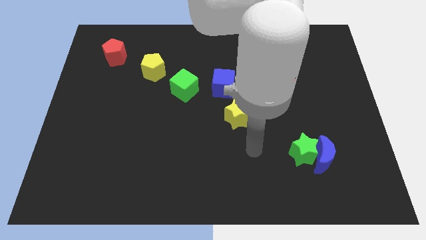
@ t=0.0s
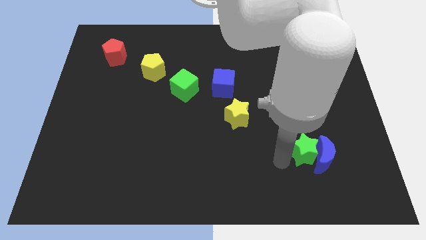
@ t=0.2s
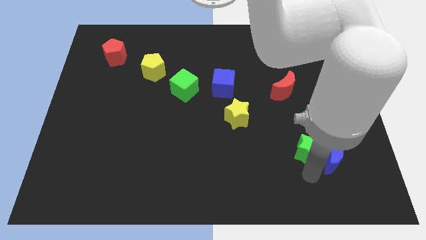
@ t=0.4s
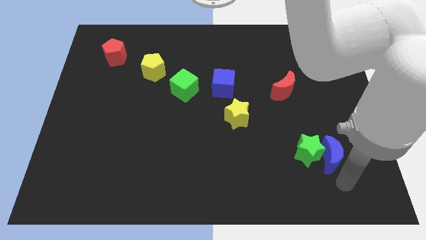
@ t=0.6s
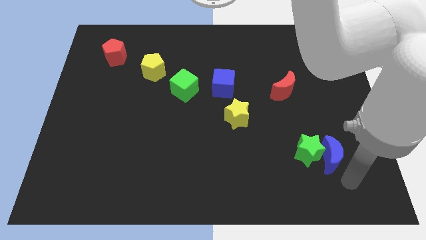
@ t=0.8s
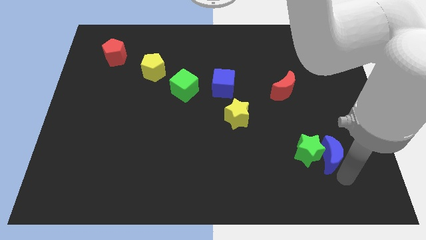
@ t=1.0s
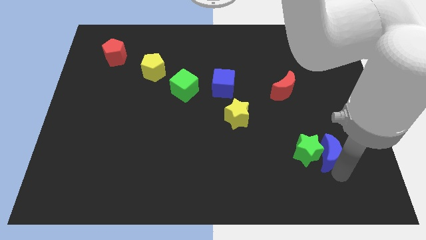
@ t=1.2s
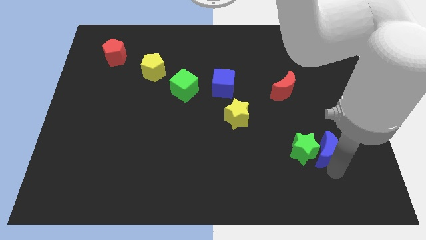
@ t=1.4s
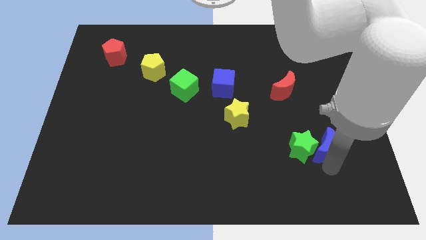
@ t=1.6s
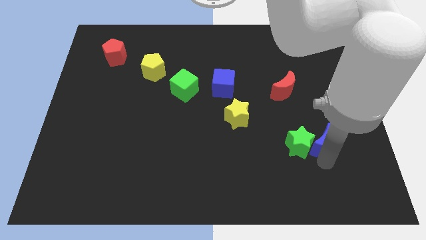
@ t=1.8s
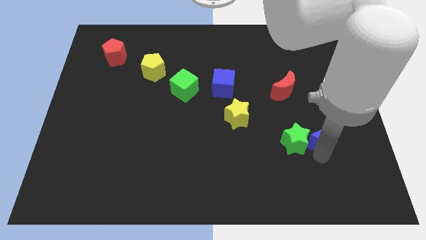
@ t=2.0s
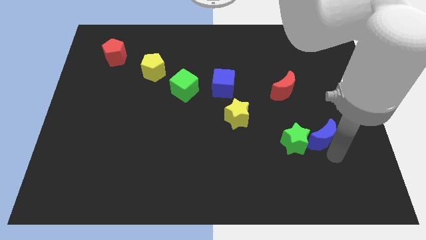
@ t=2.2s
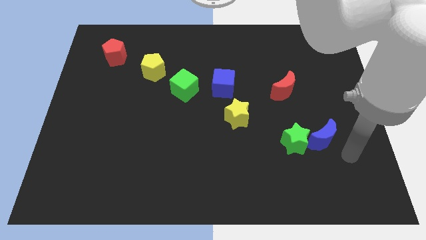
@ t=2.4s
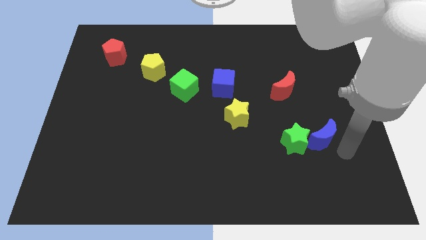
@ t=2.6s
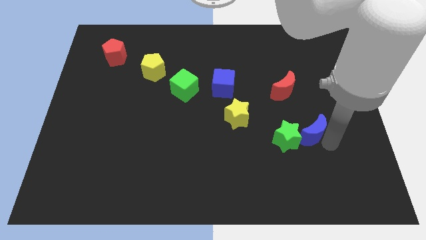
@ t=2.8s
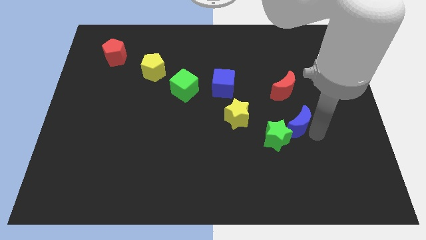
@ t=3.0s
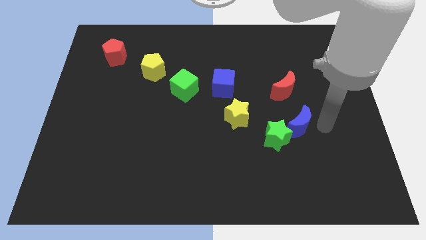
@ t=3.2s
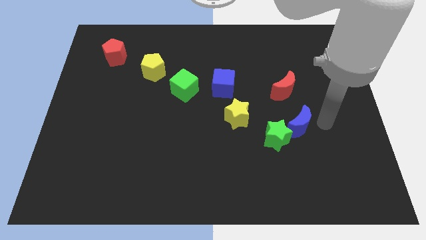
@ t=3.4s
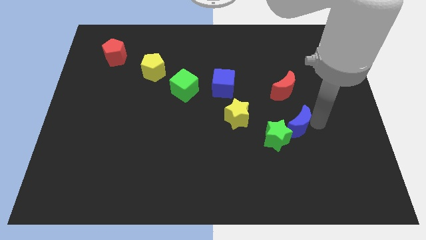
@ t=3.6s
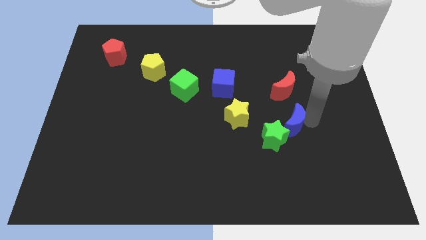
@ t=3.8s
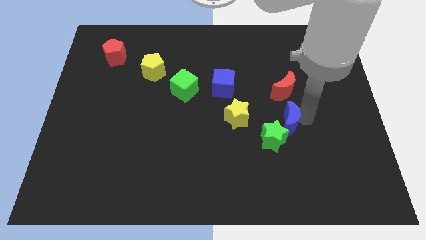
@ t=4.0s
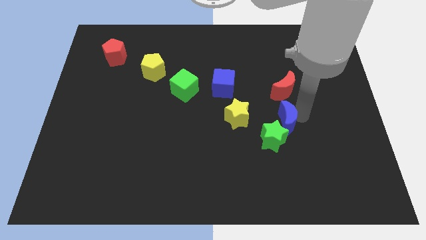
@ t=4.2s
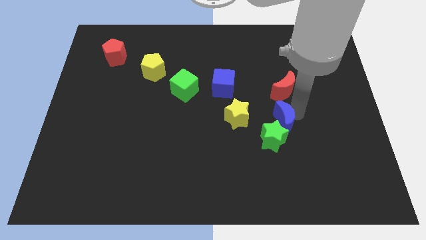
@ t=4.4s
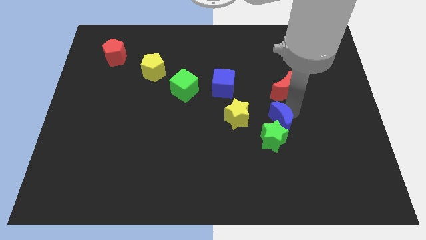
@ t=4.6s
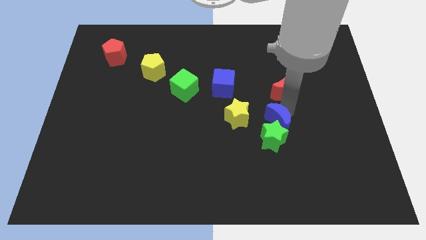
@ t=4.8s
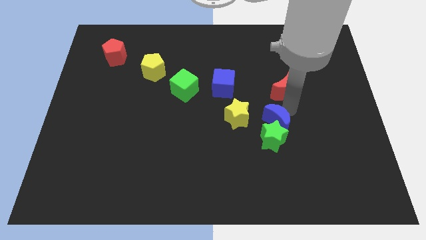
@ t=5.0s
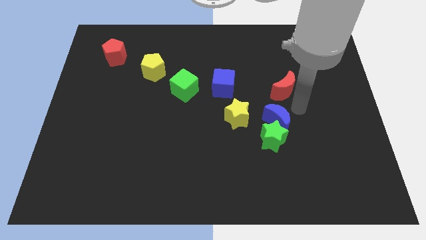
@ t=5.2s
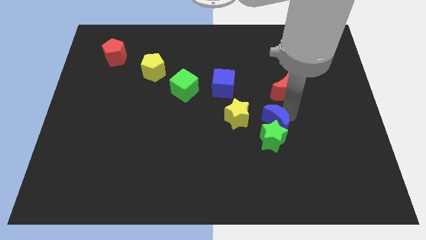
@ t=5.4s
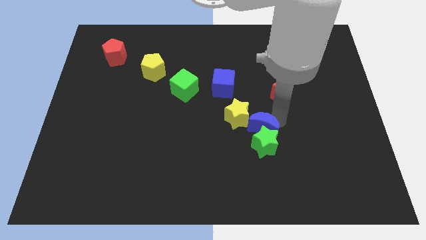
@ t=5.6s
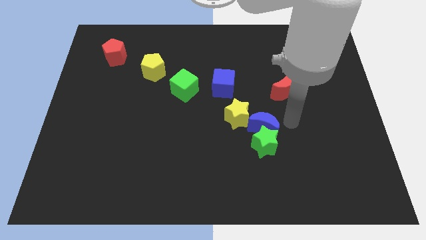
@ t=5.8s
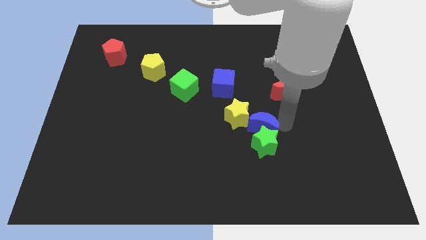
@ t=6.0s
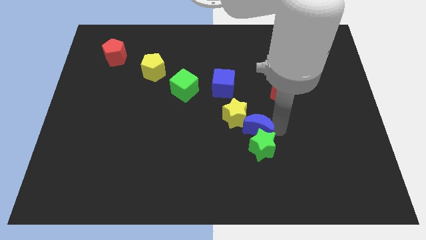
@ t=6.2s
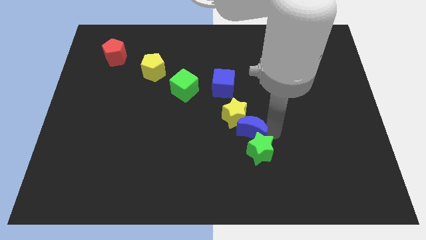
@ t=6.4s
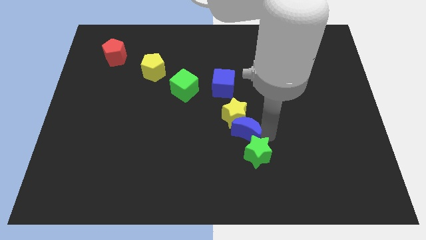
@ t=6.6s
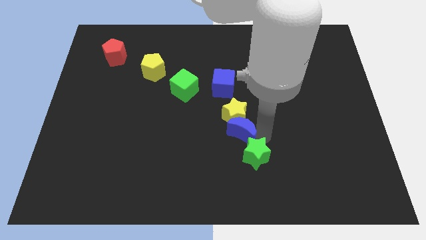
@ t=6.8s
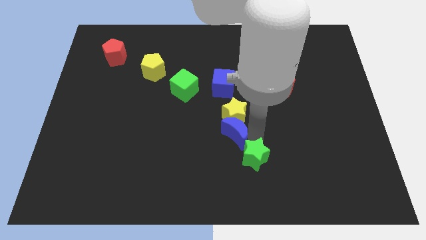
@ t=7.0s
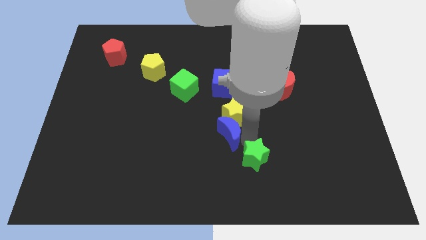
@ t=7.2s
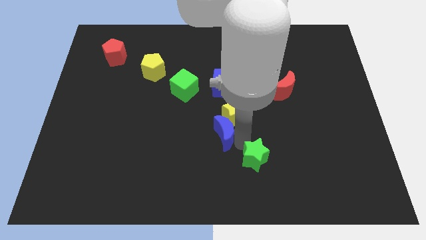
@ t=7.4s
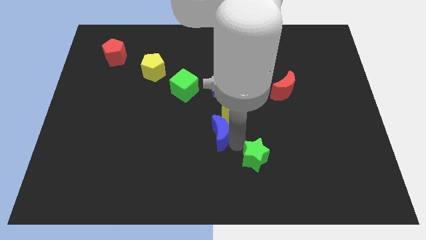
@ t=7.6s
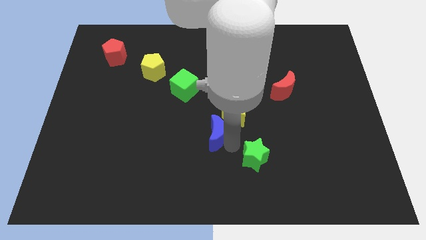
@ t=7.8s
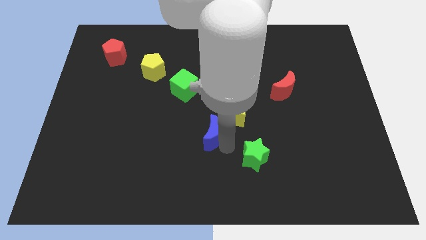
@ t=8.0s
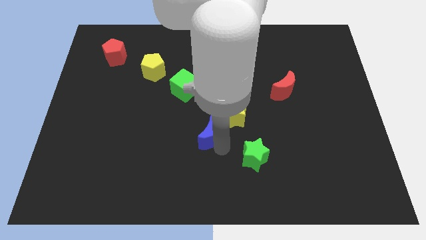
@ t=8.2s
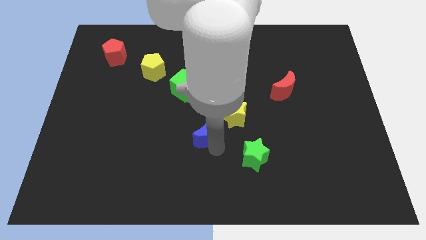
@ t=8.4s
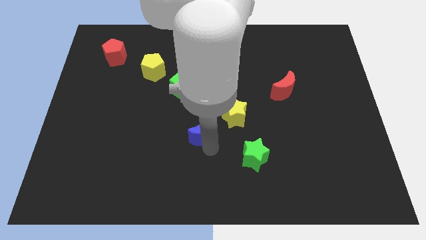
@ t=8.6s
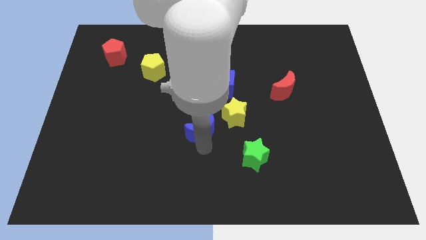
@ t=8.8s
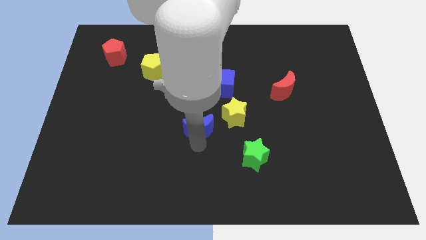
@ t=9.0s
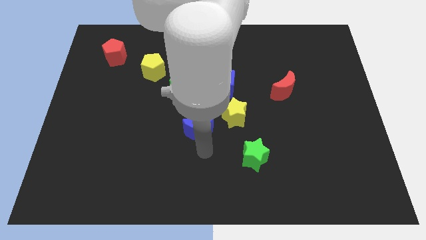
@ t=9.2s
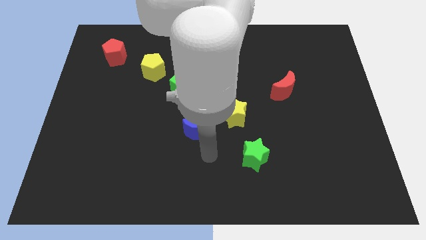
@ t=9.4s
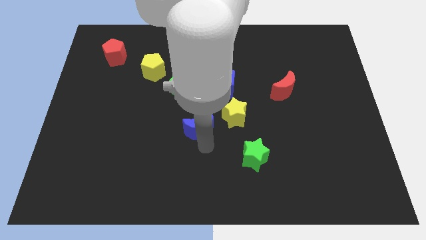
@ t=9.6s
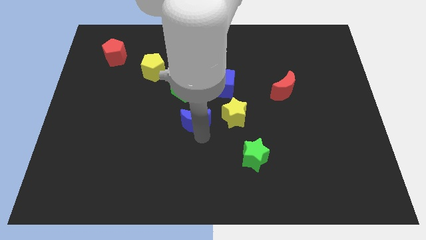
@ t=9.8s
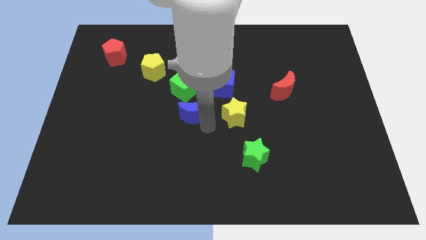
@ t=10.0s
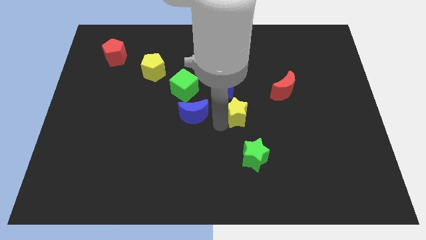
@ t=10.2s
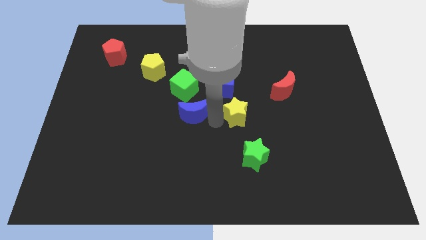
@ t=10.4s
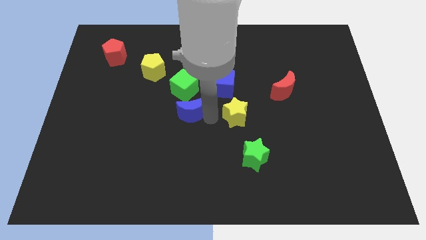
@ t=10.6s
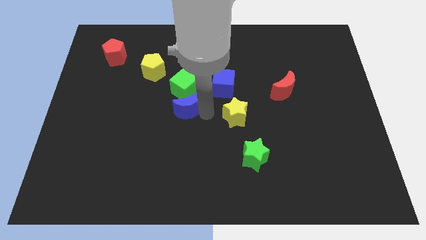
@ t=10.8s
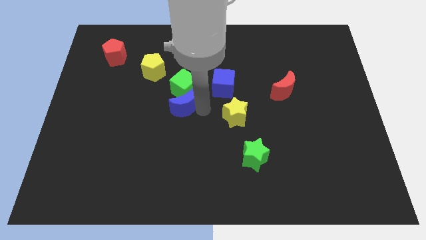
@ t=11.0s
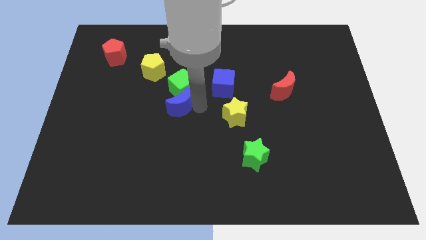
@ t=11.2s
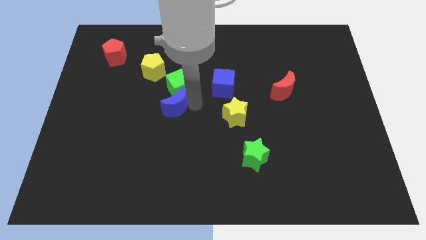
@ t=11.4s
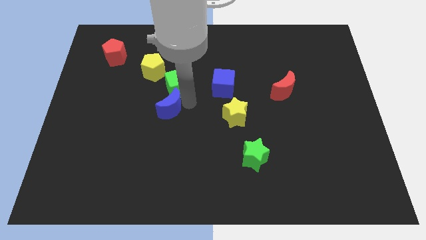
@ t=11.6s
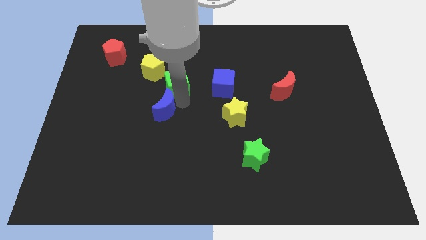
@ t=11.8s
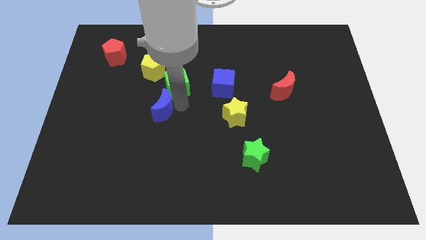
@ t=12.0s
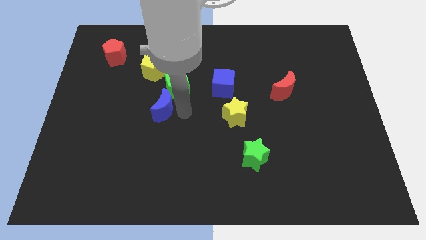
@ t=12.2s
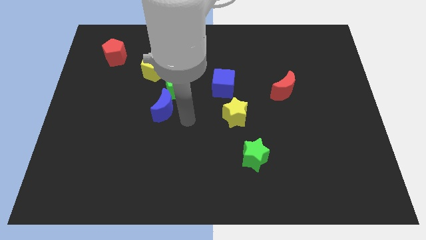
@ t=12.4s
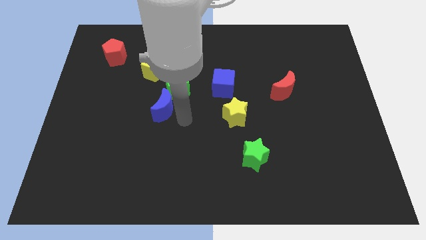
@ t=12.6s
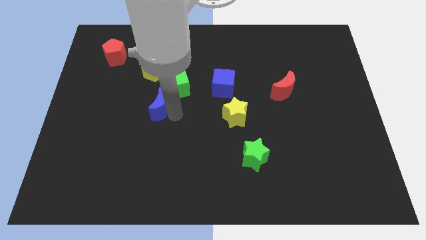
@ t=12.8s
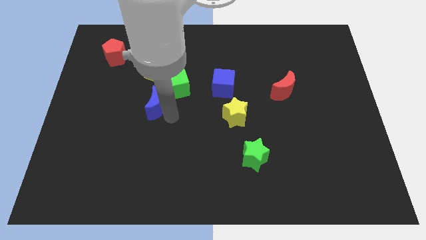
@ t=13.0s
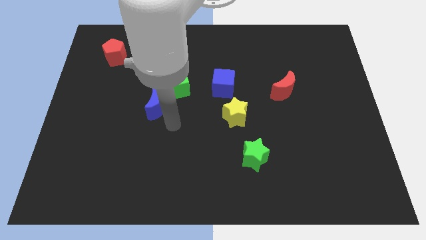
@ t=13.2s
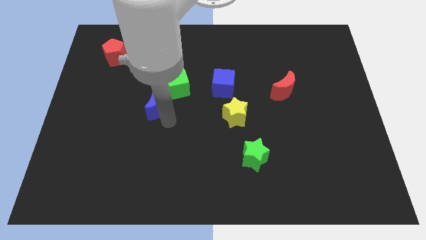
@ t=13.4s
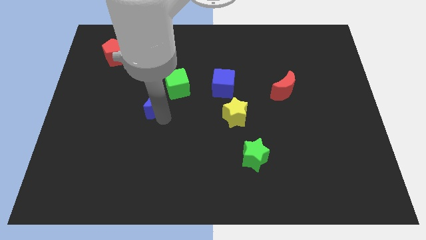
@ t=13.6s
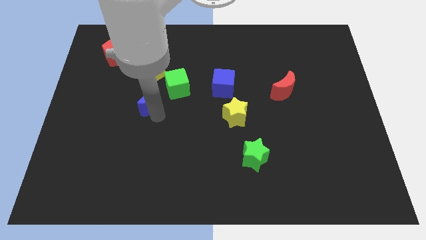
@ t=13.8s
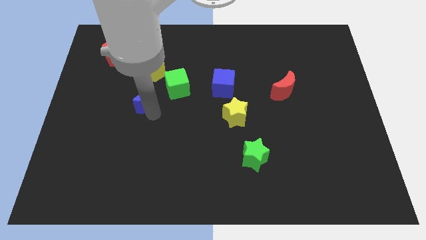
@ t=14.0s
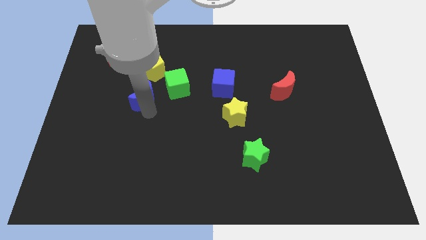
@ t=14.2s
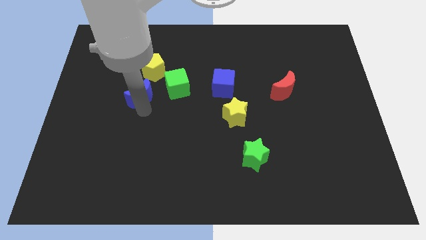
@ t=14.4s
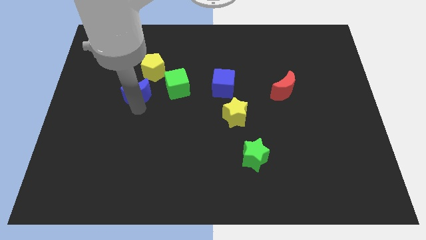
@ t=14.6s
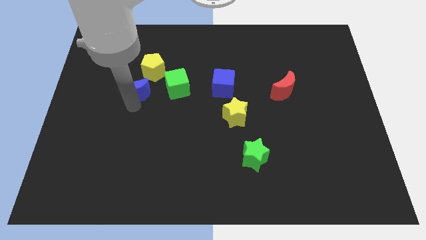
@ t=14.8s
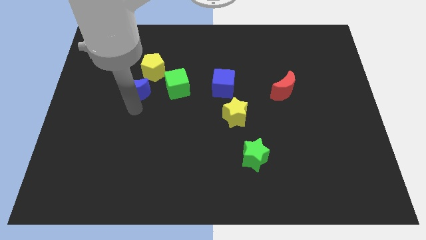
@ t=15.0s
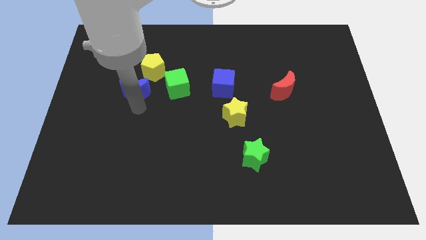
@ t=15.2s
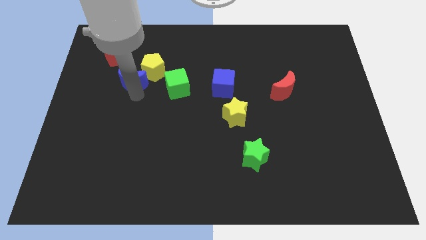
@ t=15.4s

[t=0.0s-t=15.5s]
slide the blue moon to the bottom right of the red pentagon
